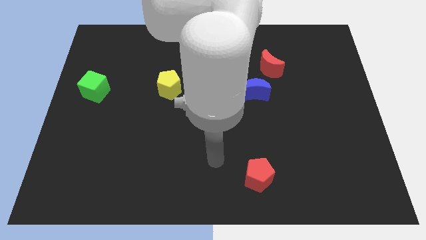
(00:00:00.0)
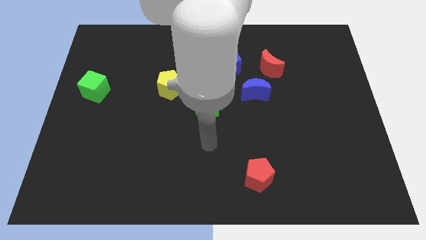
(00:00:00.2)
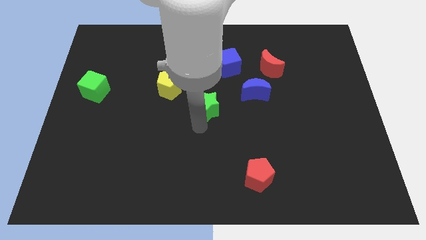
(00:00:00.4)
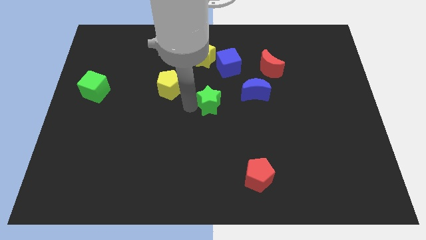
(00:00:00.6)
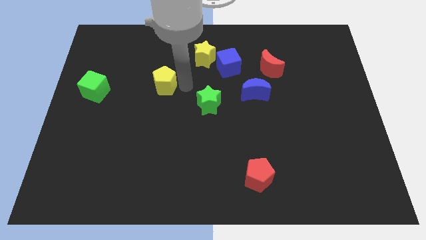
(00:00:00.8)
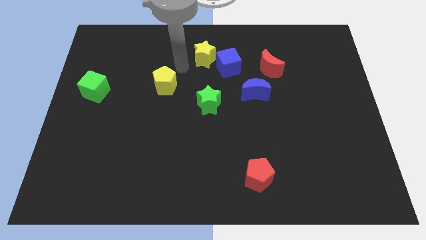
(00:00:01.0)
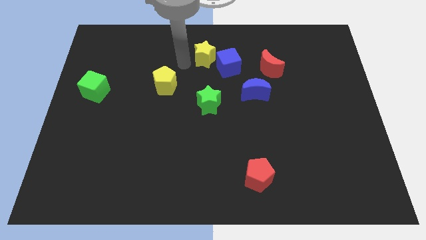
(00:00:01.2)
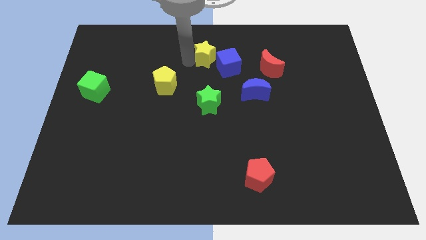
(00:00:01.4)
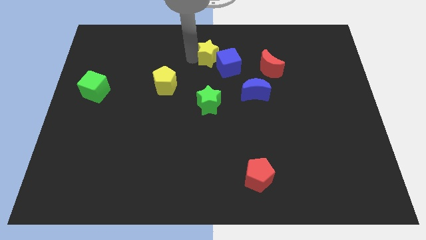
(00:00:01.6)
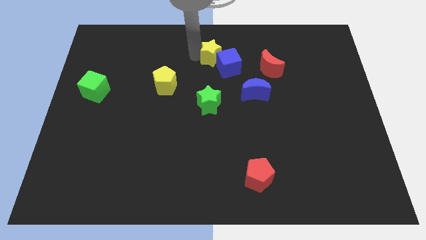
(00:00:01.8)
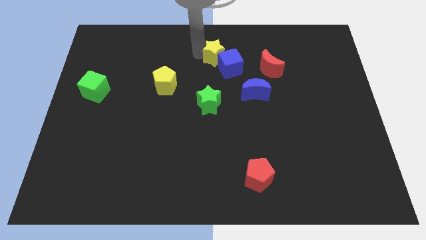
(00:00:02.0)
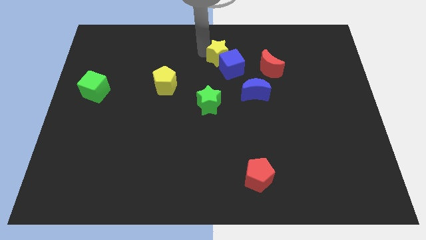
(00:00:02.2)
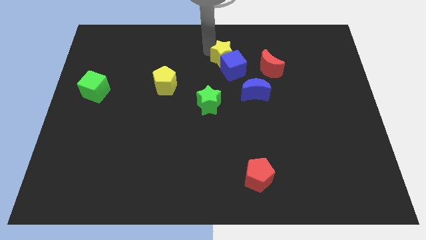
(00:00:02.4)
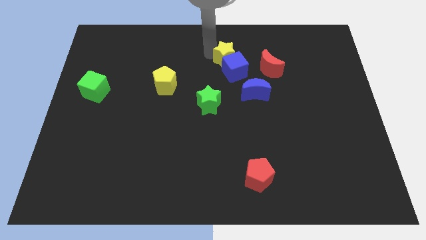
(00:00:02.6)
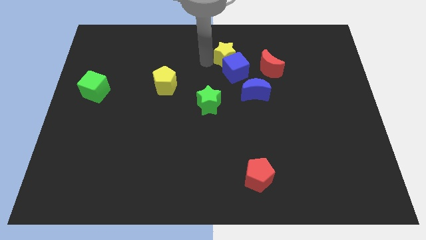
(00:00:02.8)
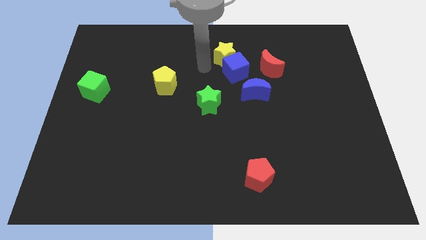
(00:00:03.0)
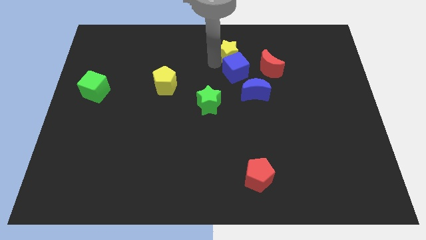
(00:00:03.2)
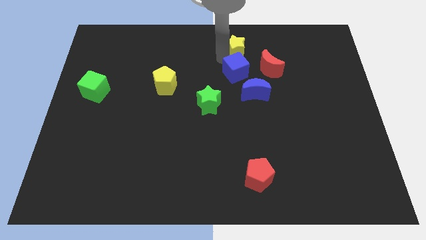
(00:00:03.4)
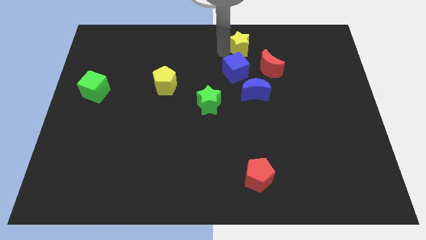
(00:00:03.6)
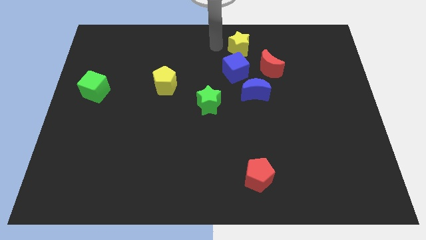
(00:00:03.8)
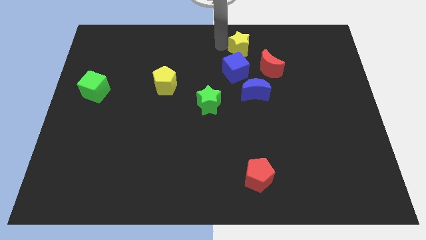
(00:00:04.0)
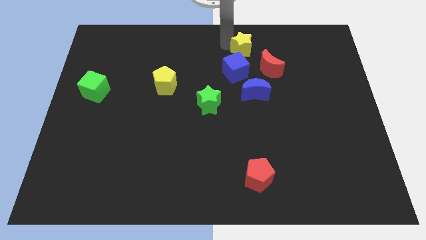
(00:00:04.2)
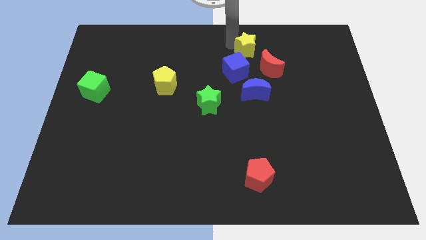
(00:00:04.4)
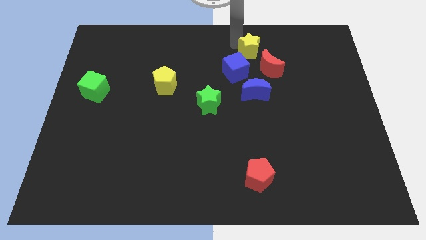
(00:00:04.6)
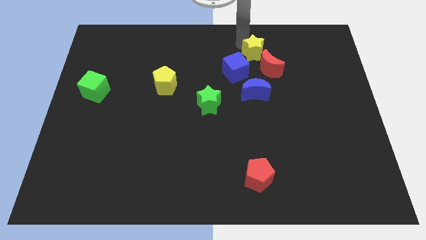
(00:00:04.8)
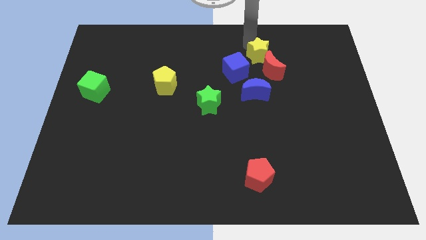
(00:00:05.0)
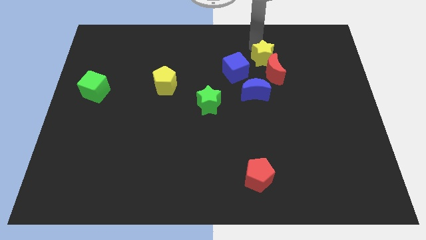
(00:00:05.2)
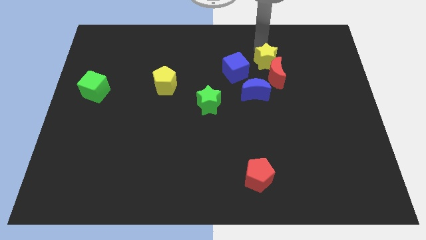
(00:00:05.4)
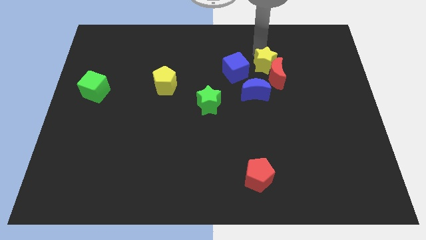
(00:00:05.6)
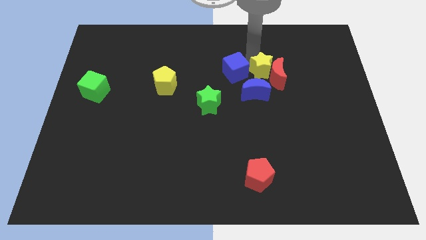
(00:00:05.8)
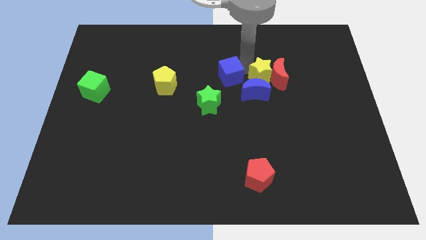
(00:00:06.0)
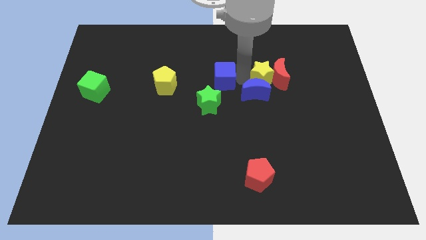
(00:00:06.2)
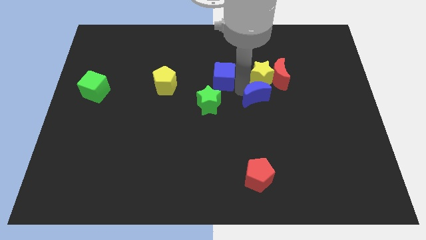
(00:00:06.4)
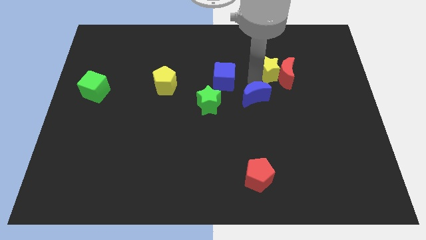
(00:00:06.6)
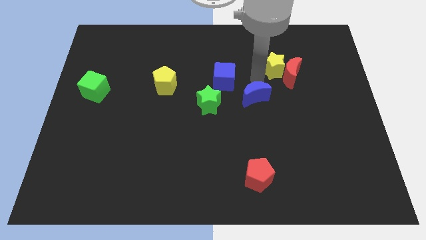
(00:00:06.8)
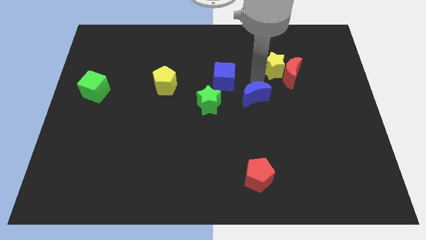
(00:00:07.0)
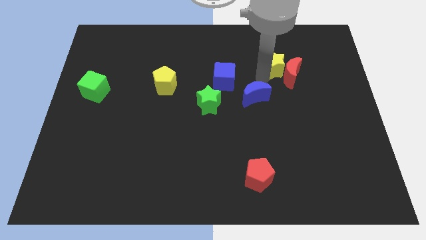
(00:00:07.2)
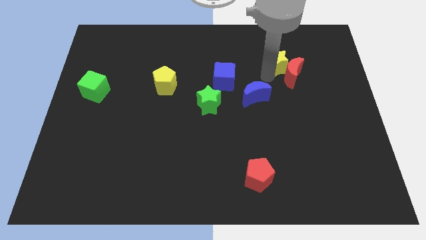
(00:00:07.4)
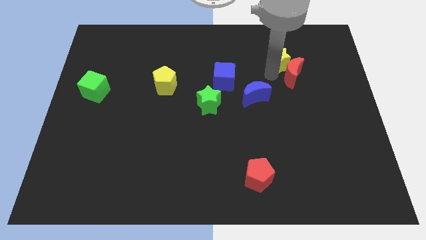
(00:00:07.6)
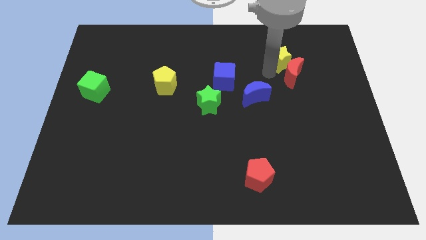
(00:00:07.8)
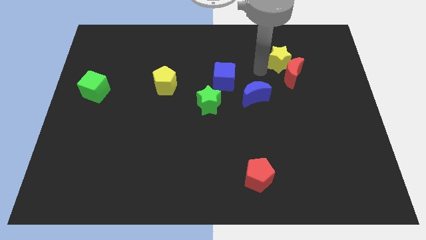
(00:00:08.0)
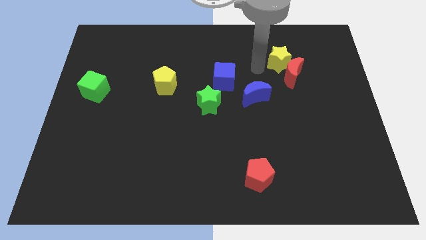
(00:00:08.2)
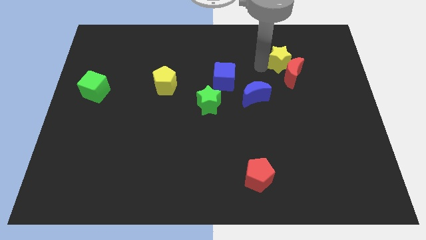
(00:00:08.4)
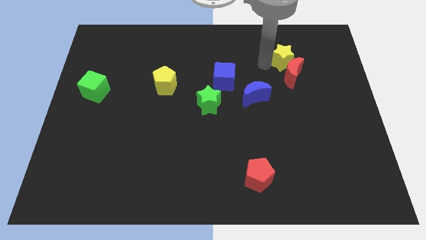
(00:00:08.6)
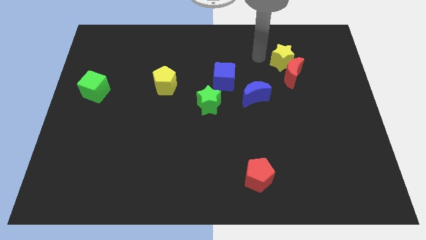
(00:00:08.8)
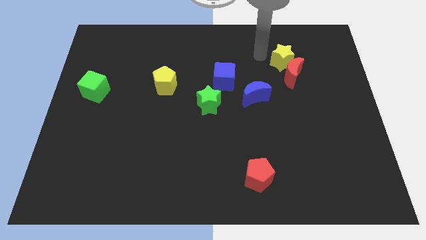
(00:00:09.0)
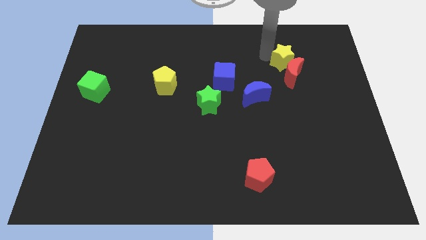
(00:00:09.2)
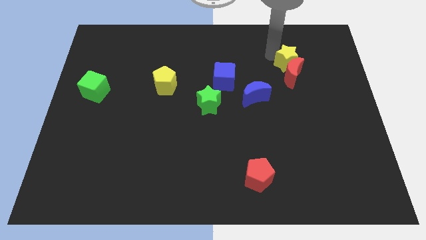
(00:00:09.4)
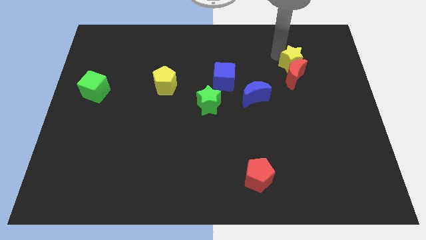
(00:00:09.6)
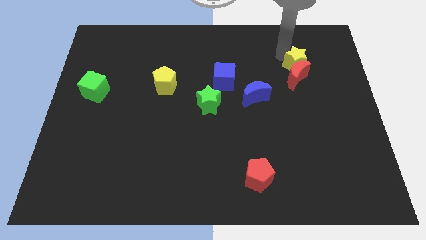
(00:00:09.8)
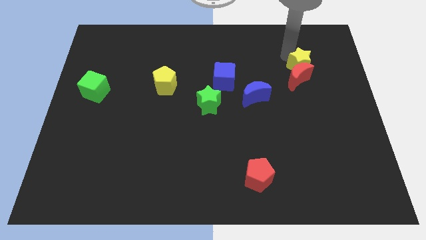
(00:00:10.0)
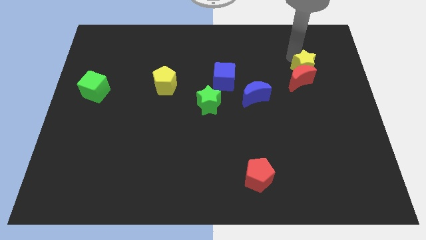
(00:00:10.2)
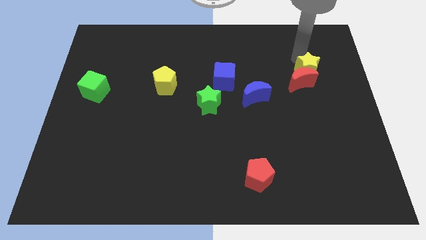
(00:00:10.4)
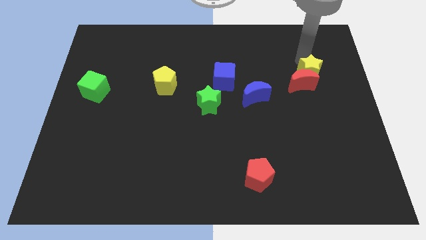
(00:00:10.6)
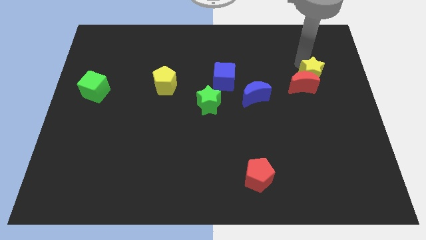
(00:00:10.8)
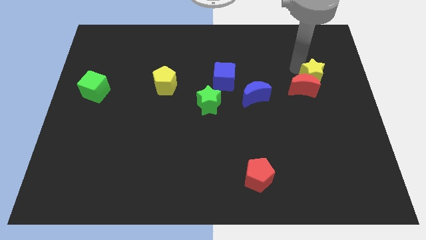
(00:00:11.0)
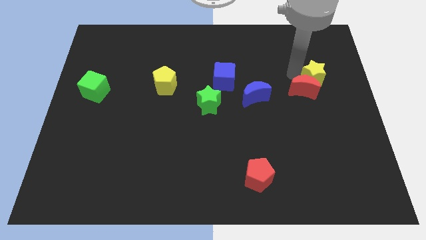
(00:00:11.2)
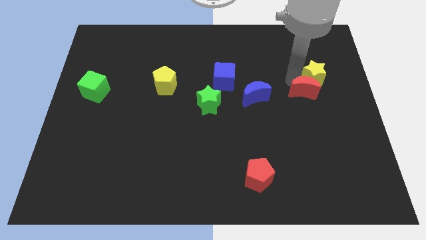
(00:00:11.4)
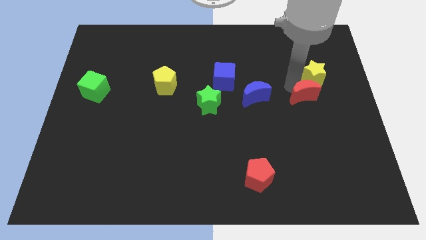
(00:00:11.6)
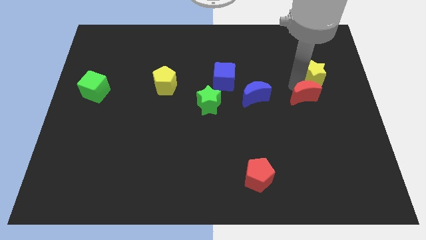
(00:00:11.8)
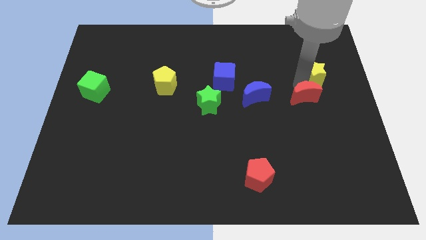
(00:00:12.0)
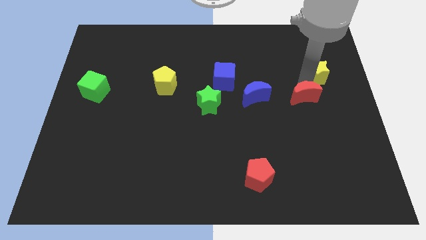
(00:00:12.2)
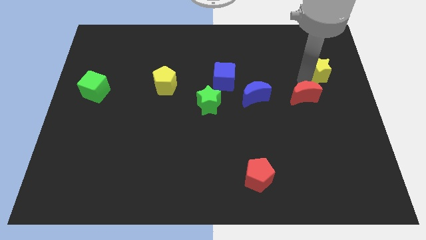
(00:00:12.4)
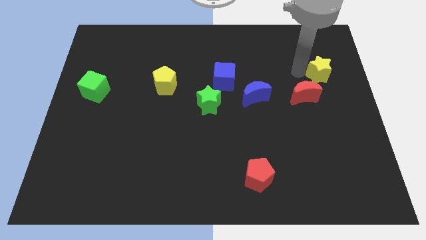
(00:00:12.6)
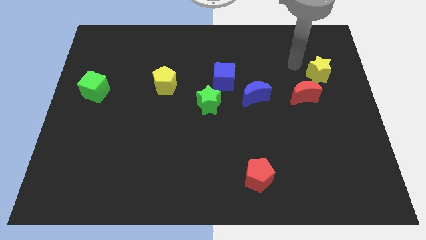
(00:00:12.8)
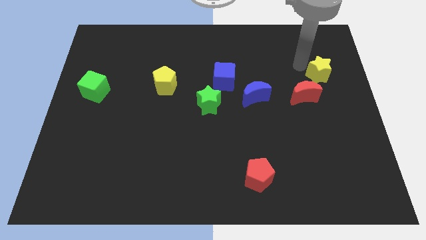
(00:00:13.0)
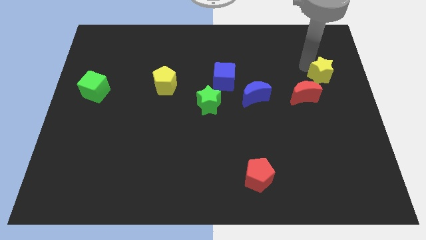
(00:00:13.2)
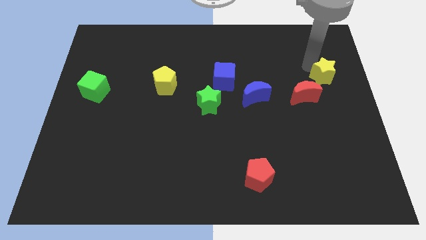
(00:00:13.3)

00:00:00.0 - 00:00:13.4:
put the yellow star to the right side of the board
